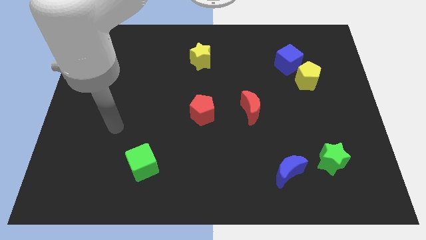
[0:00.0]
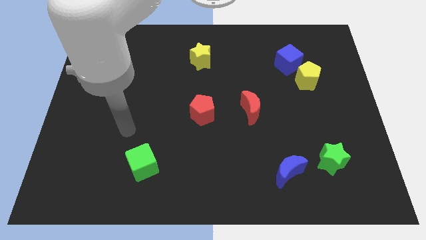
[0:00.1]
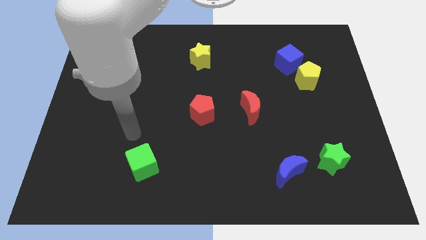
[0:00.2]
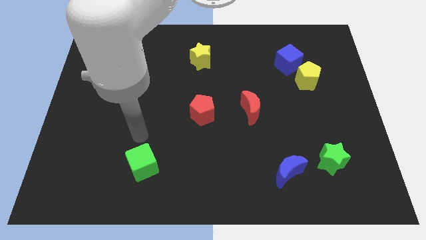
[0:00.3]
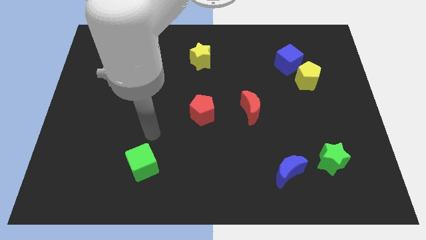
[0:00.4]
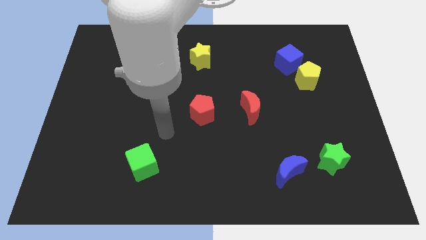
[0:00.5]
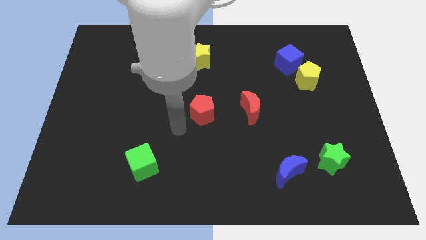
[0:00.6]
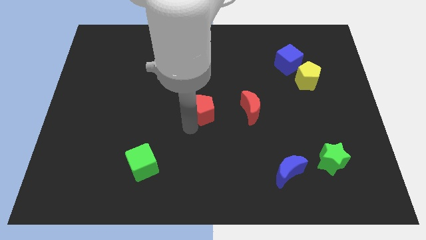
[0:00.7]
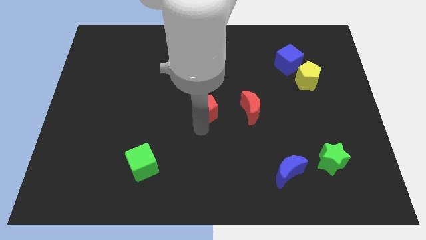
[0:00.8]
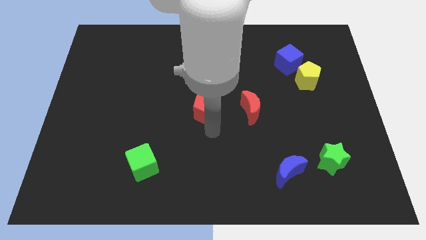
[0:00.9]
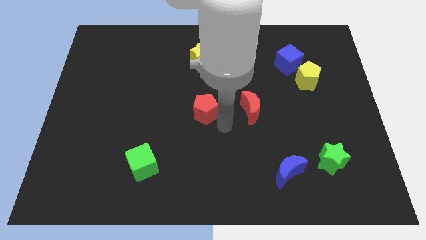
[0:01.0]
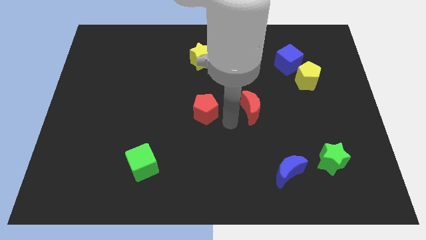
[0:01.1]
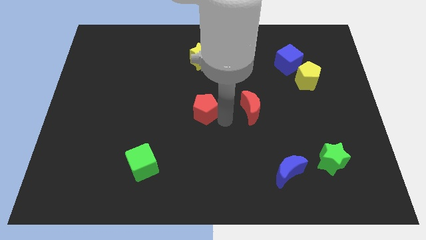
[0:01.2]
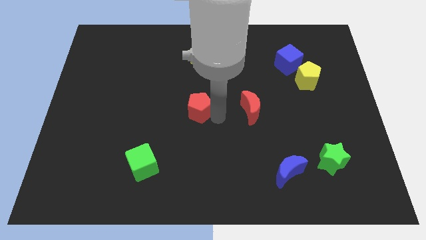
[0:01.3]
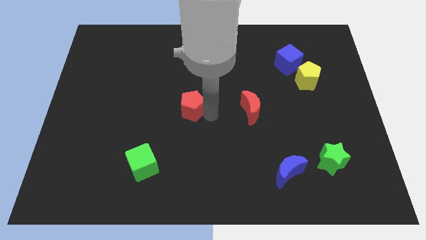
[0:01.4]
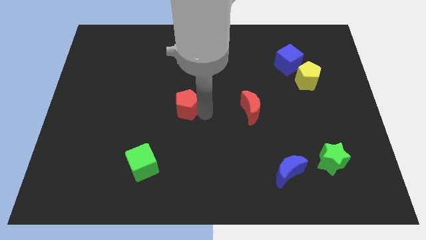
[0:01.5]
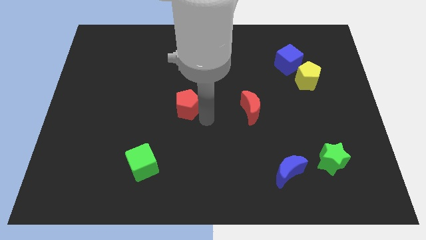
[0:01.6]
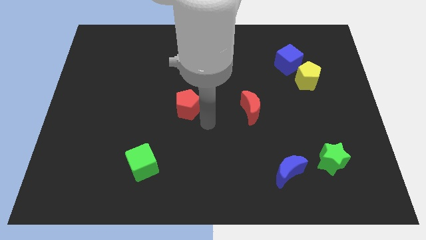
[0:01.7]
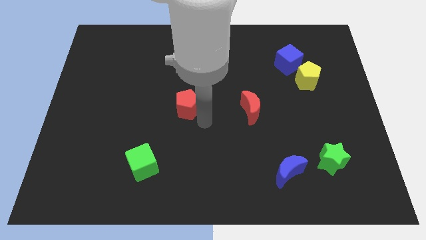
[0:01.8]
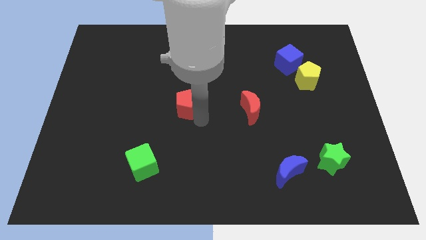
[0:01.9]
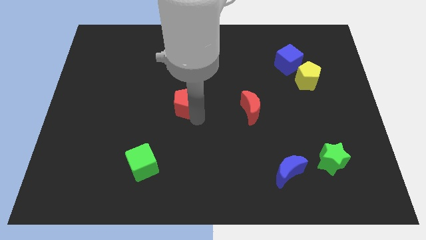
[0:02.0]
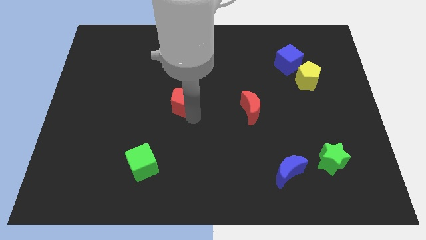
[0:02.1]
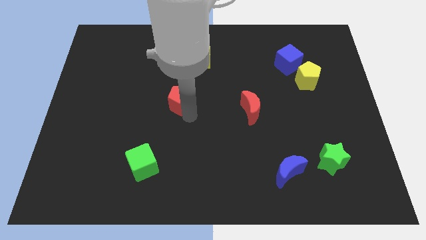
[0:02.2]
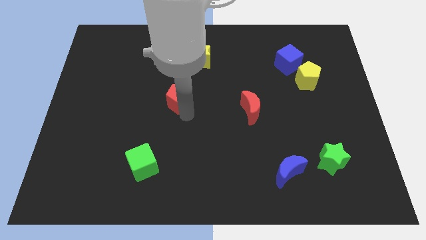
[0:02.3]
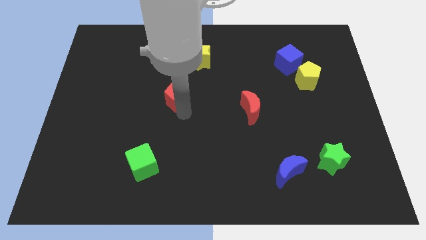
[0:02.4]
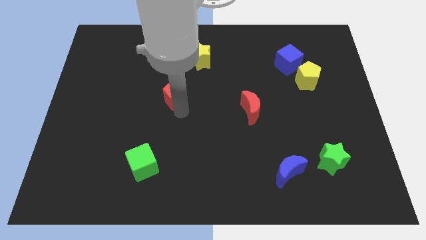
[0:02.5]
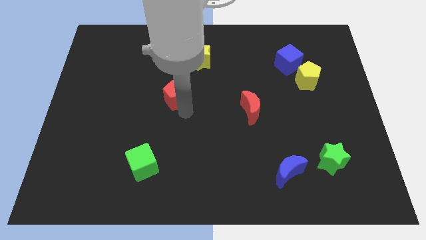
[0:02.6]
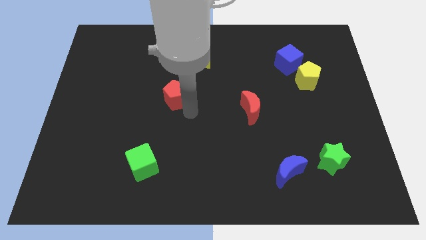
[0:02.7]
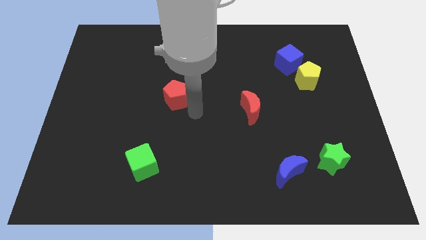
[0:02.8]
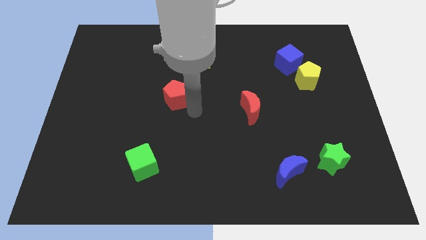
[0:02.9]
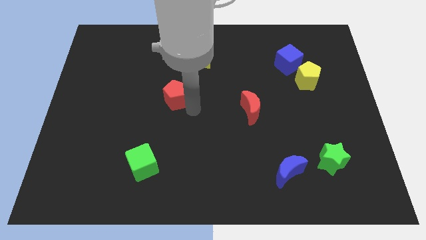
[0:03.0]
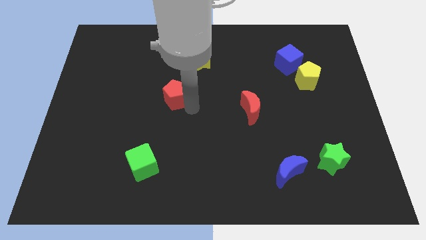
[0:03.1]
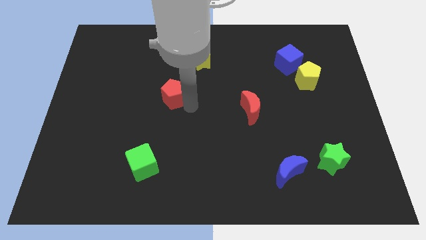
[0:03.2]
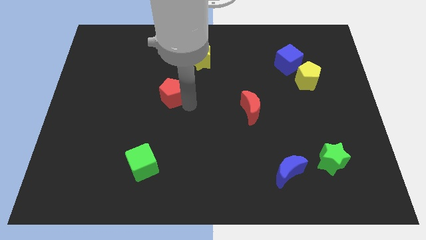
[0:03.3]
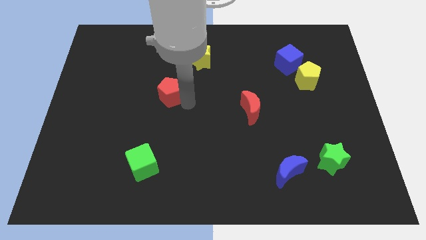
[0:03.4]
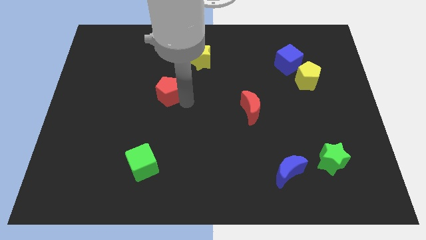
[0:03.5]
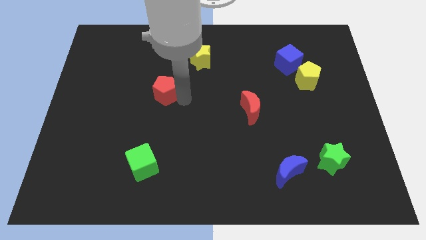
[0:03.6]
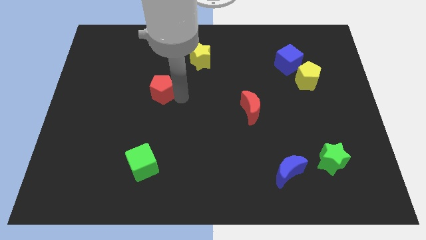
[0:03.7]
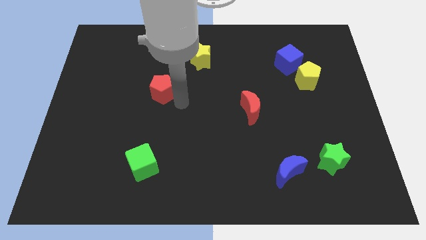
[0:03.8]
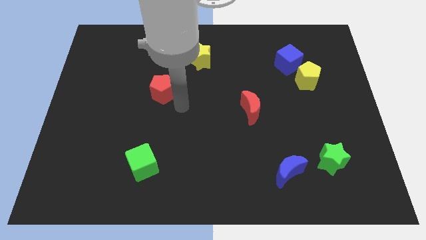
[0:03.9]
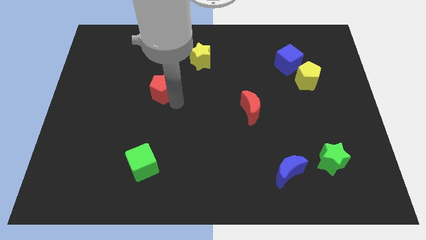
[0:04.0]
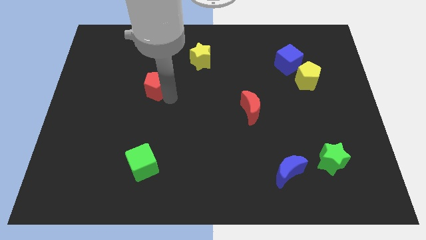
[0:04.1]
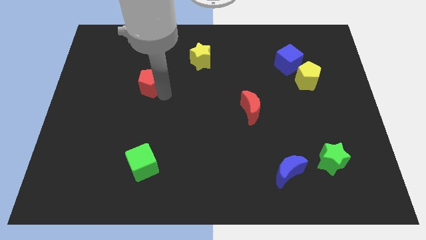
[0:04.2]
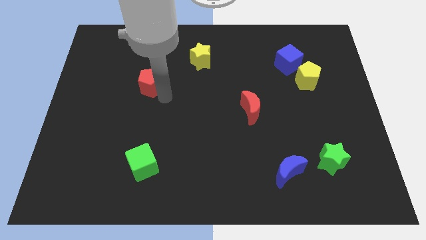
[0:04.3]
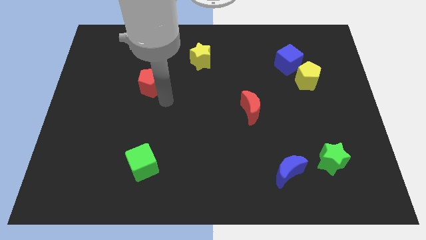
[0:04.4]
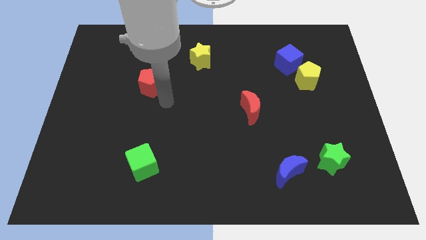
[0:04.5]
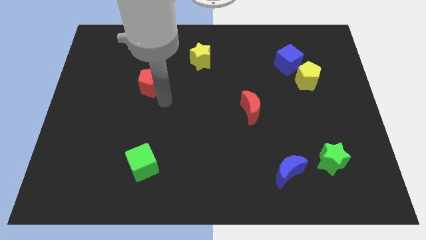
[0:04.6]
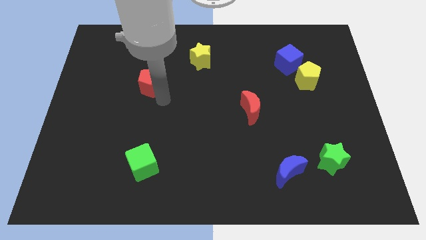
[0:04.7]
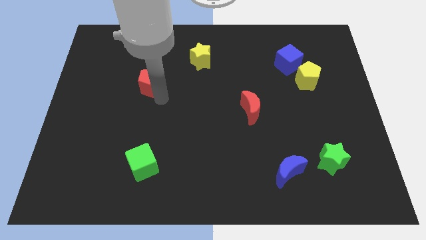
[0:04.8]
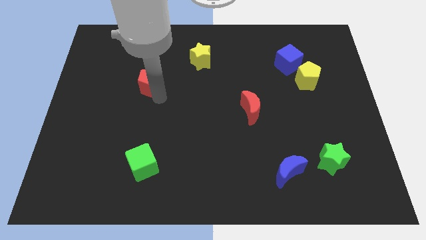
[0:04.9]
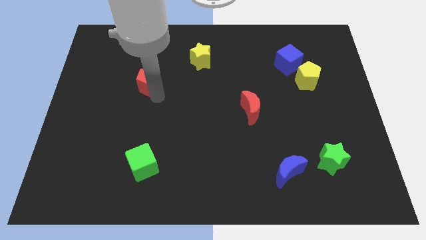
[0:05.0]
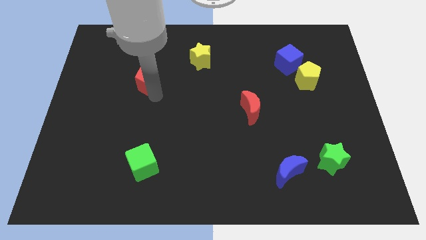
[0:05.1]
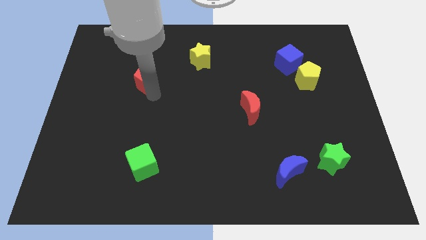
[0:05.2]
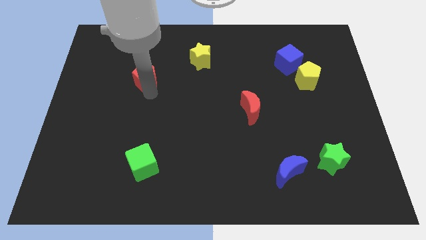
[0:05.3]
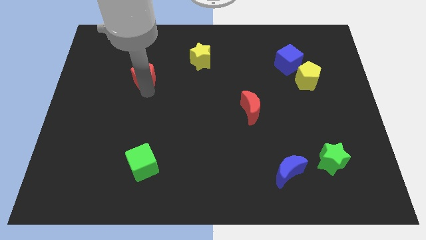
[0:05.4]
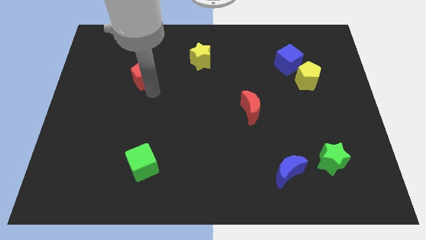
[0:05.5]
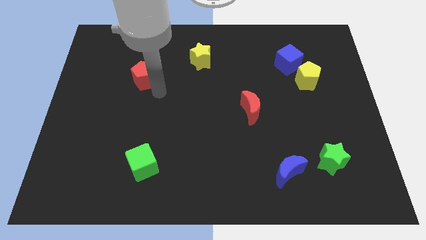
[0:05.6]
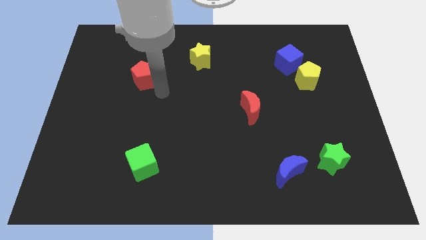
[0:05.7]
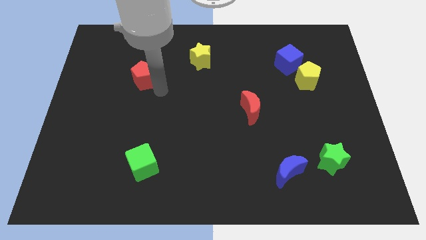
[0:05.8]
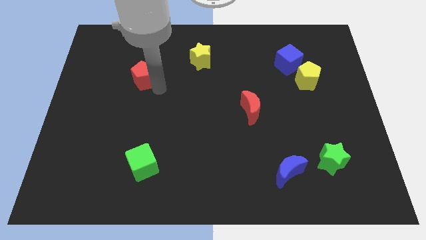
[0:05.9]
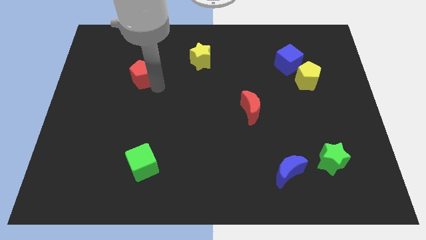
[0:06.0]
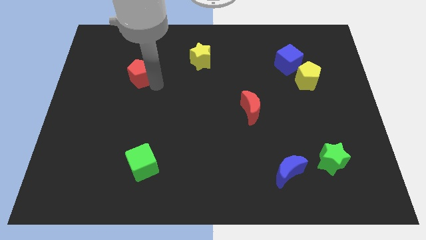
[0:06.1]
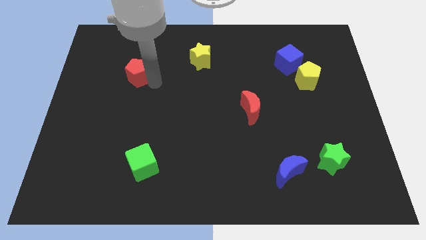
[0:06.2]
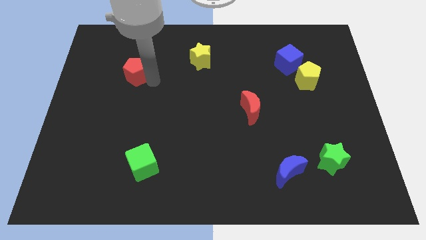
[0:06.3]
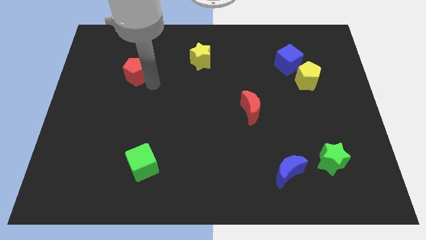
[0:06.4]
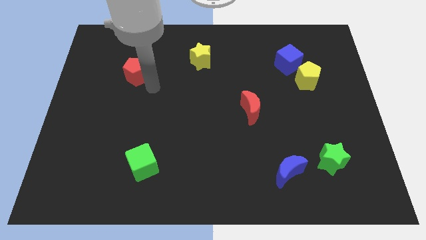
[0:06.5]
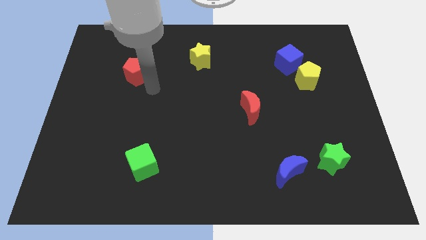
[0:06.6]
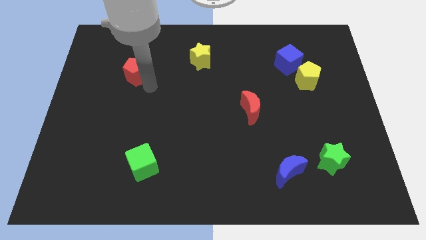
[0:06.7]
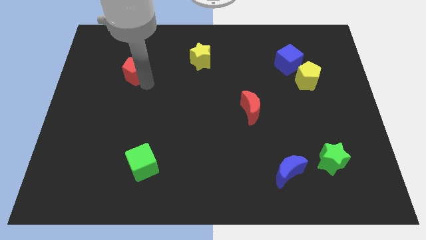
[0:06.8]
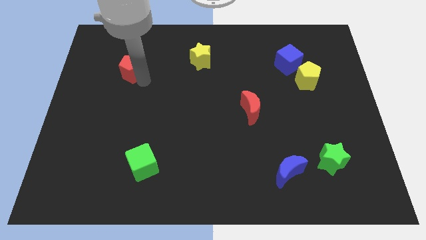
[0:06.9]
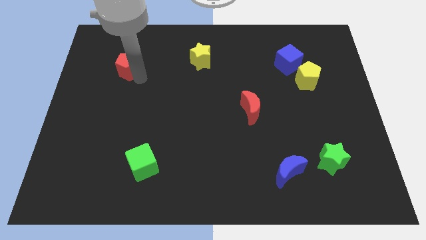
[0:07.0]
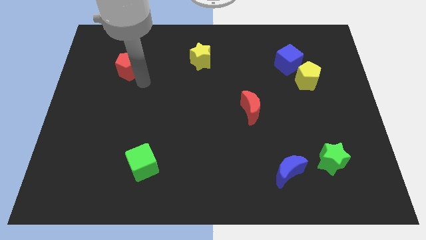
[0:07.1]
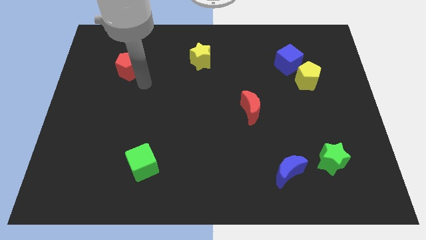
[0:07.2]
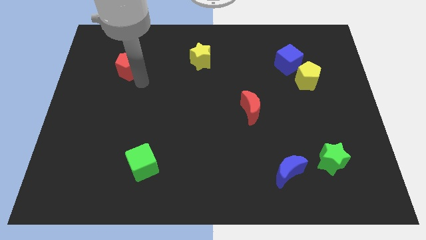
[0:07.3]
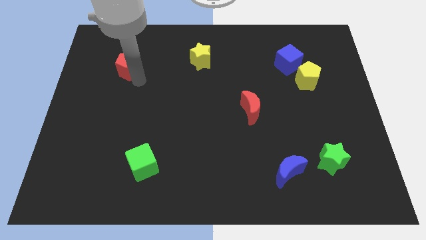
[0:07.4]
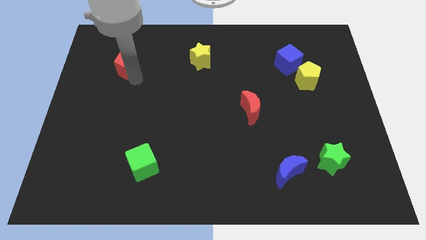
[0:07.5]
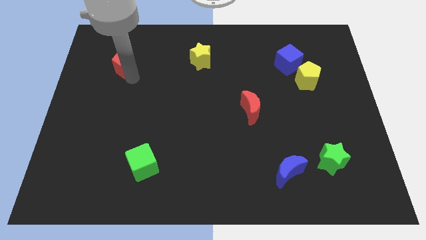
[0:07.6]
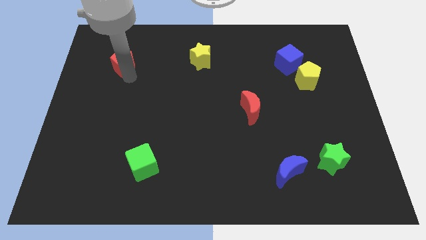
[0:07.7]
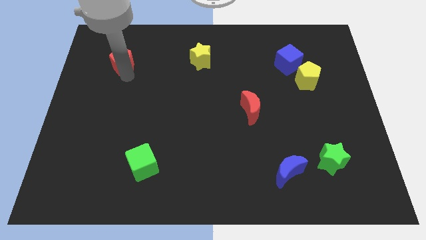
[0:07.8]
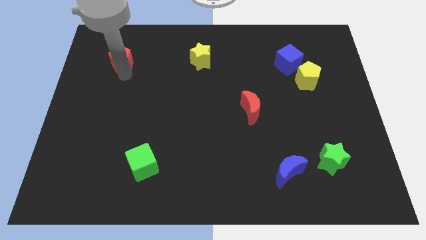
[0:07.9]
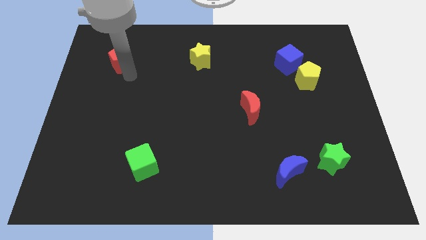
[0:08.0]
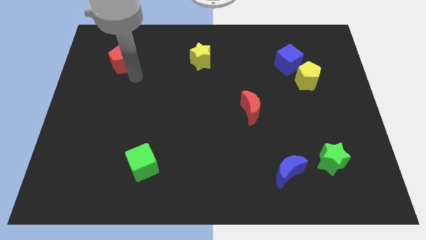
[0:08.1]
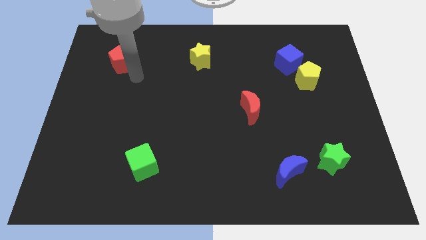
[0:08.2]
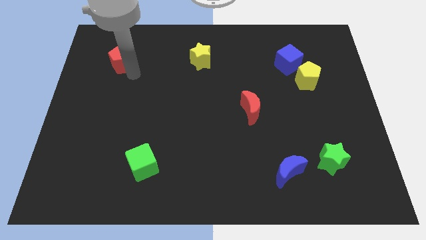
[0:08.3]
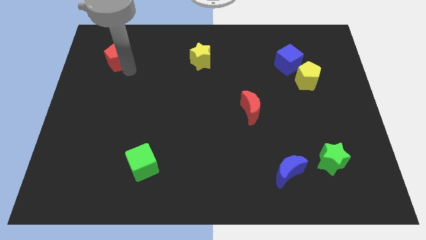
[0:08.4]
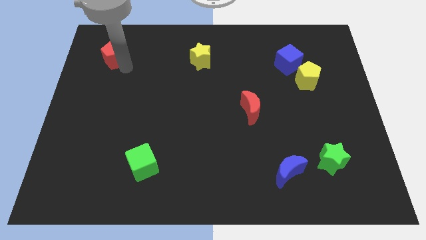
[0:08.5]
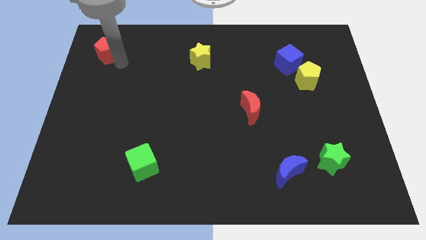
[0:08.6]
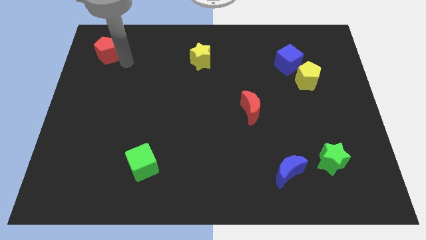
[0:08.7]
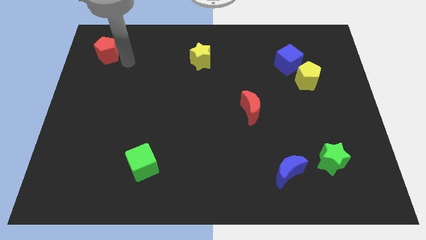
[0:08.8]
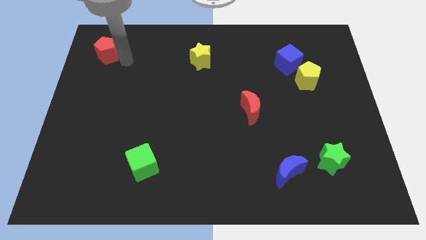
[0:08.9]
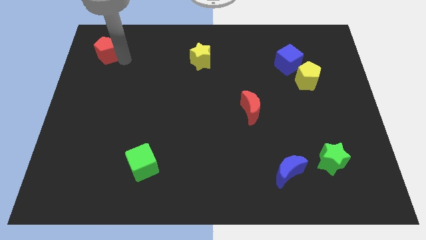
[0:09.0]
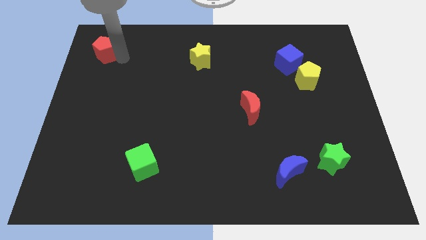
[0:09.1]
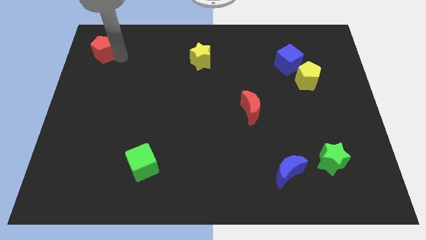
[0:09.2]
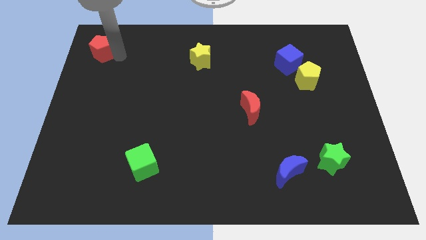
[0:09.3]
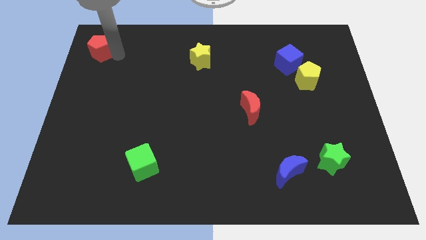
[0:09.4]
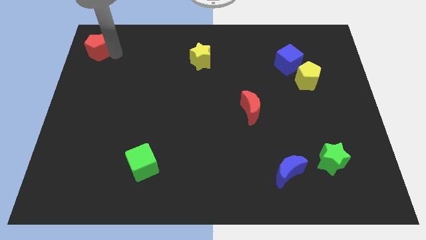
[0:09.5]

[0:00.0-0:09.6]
push the red pentagon to the upper left corner
